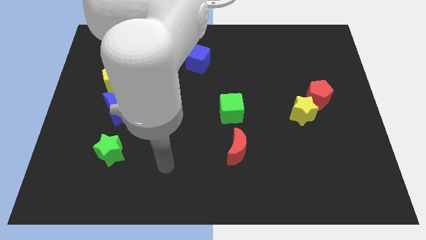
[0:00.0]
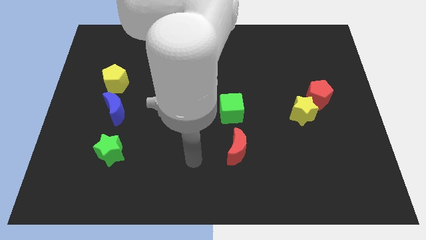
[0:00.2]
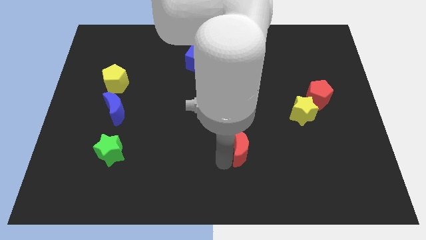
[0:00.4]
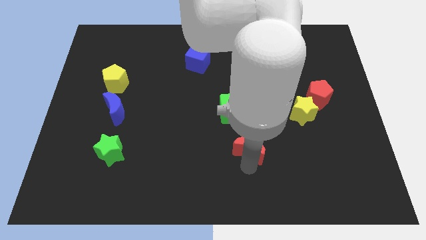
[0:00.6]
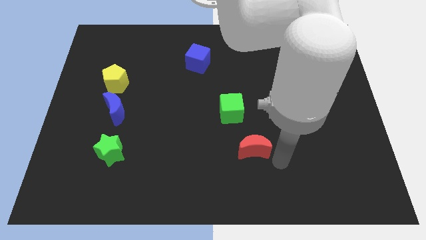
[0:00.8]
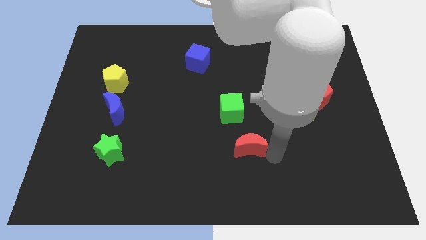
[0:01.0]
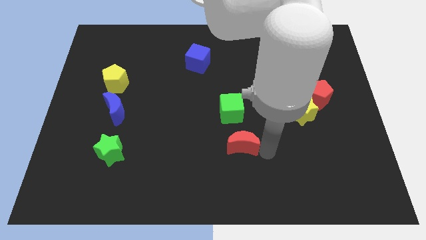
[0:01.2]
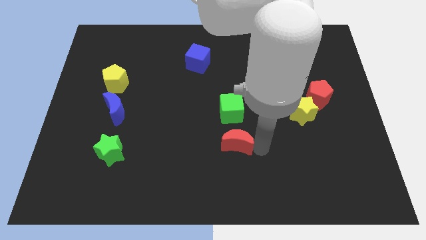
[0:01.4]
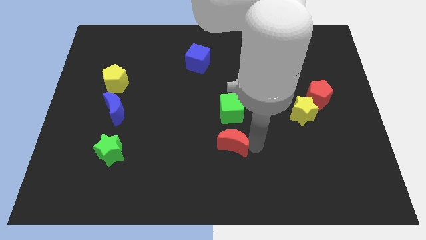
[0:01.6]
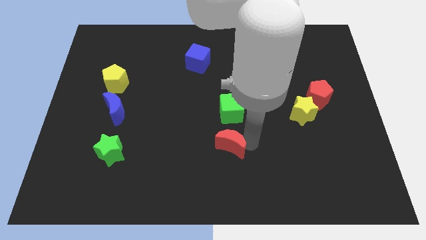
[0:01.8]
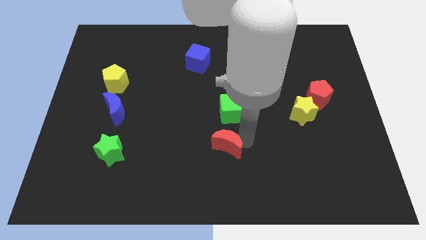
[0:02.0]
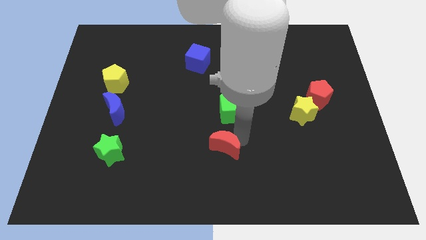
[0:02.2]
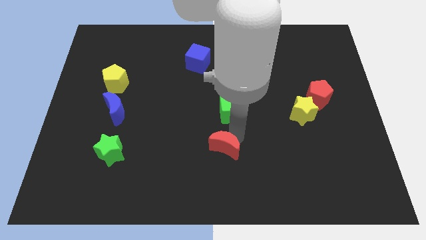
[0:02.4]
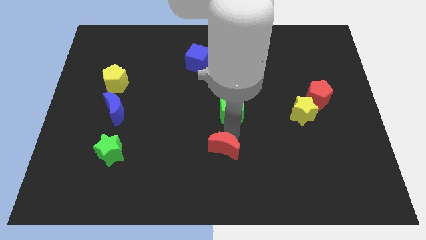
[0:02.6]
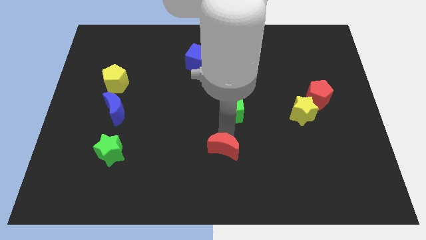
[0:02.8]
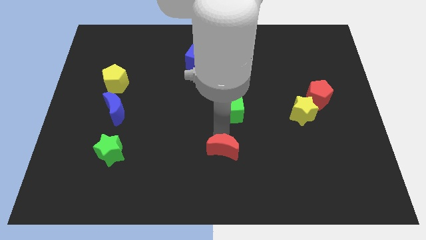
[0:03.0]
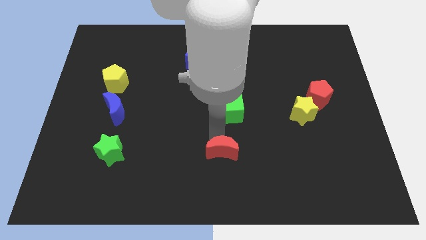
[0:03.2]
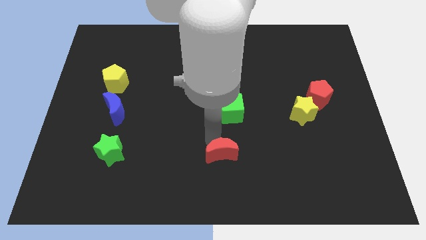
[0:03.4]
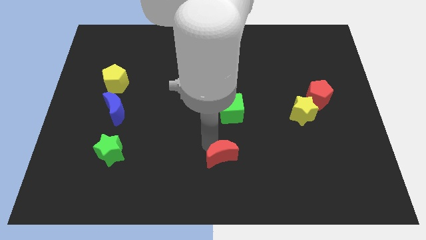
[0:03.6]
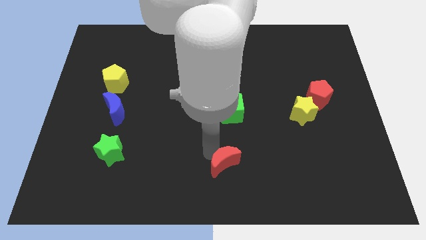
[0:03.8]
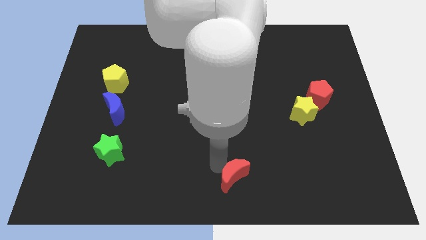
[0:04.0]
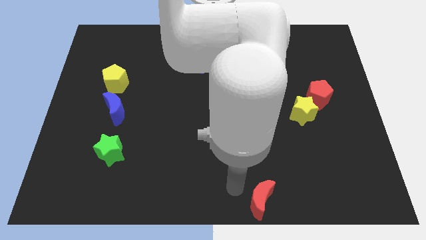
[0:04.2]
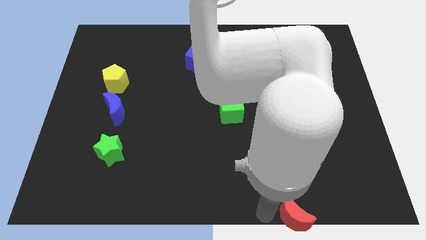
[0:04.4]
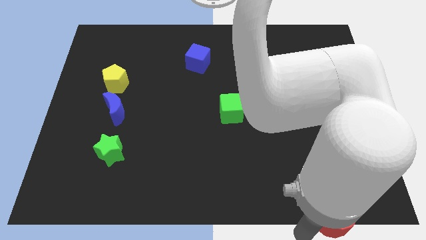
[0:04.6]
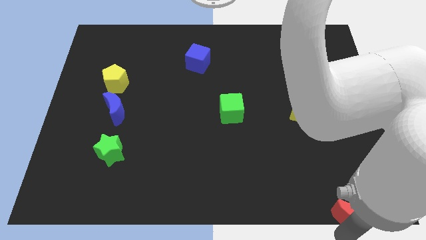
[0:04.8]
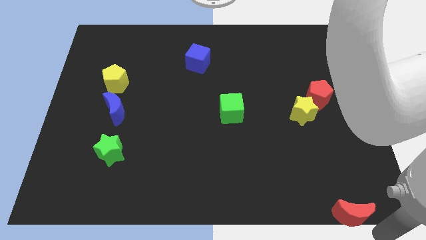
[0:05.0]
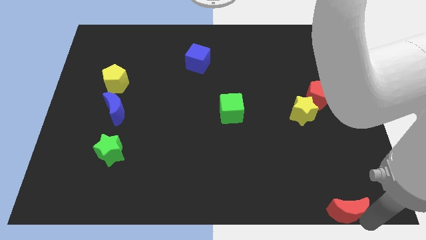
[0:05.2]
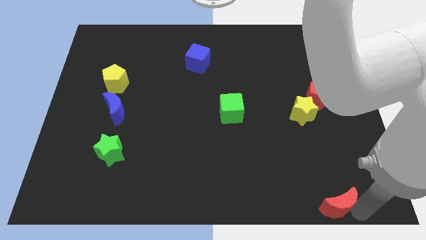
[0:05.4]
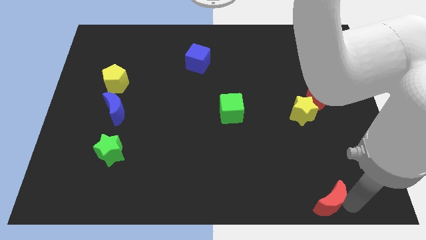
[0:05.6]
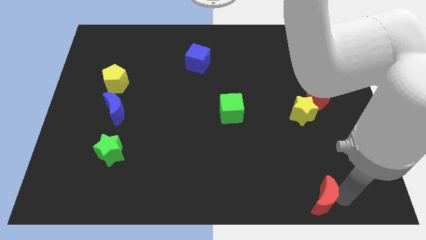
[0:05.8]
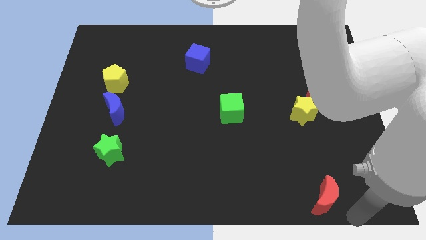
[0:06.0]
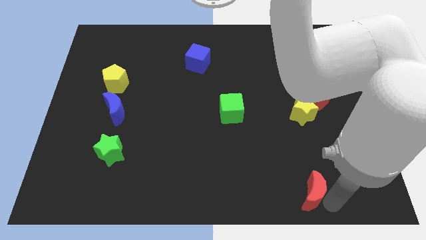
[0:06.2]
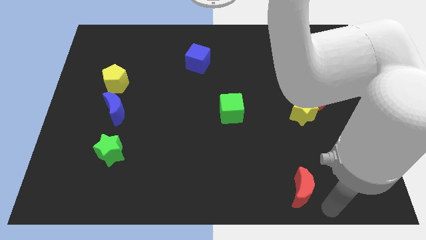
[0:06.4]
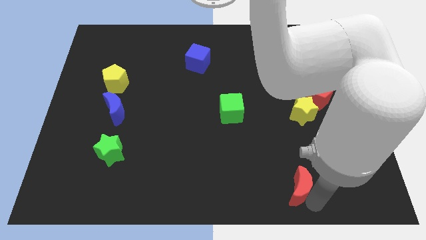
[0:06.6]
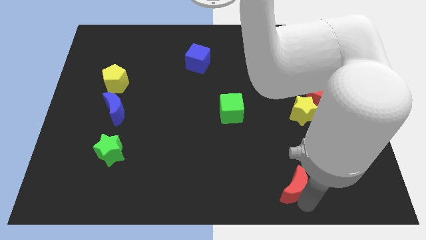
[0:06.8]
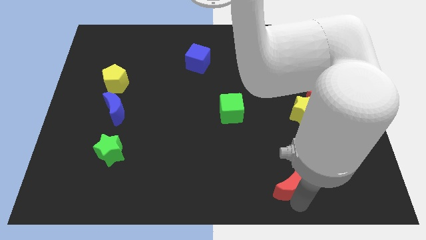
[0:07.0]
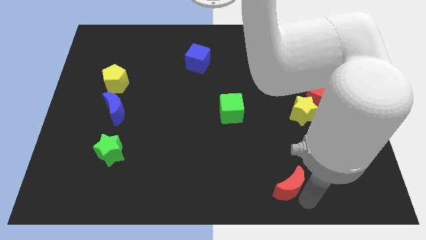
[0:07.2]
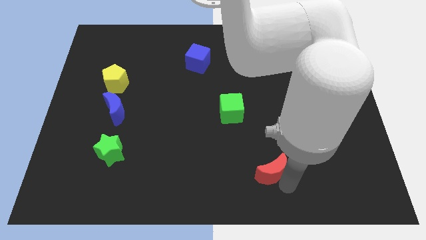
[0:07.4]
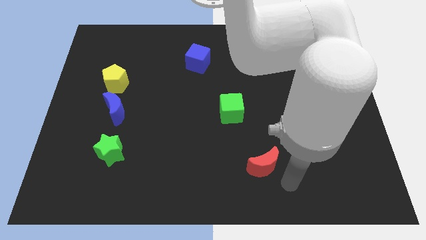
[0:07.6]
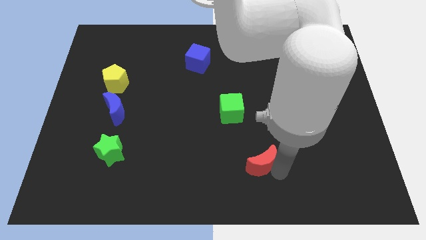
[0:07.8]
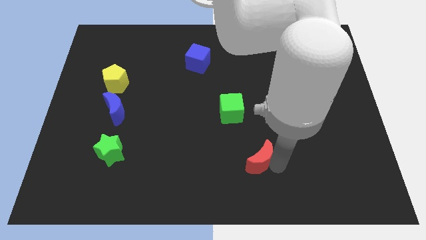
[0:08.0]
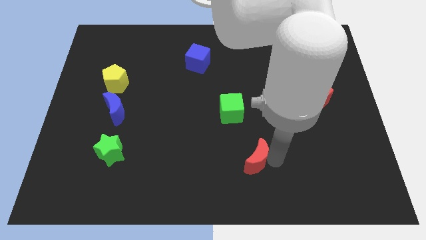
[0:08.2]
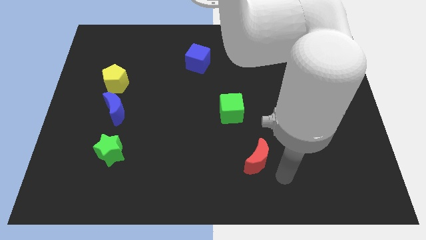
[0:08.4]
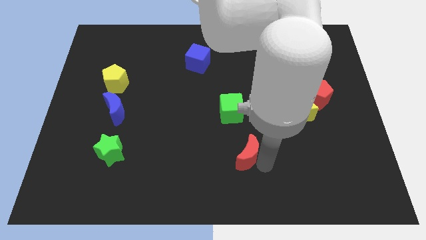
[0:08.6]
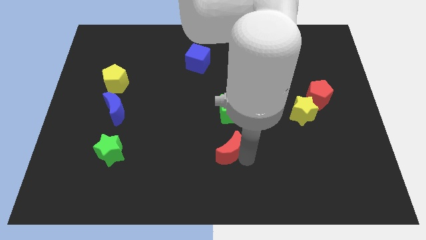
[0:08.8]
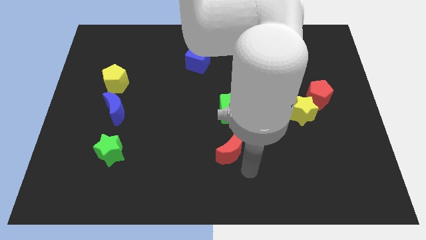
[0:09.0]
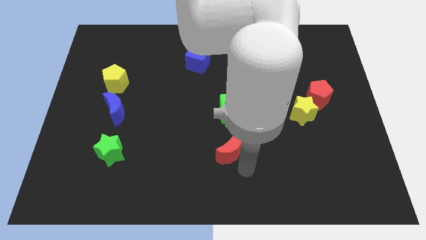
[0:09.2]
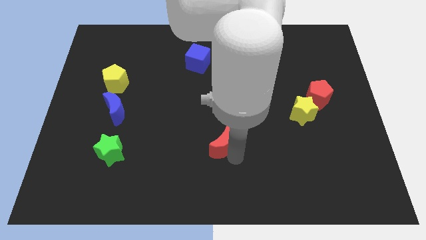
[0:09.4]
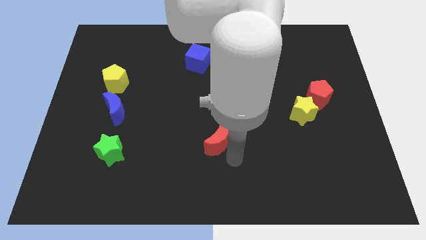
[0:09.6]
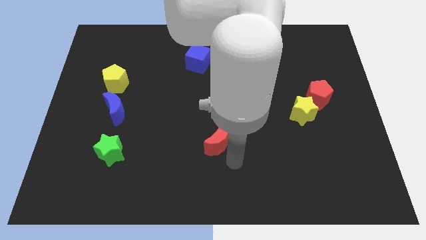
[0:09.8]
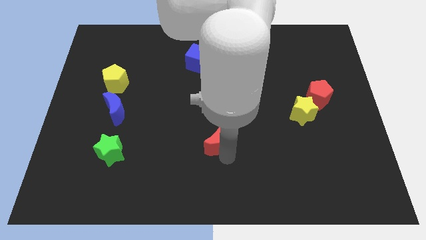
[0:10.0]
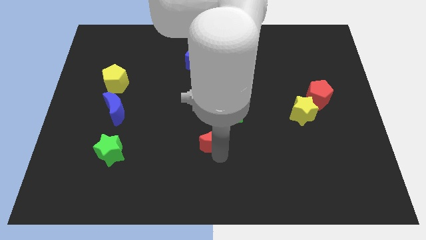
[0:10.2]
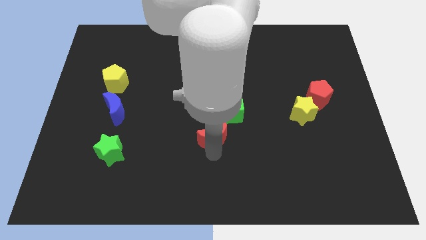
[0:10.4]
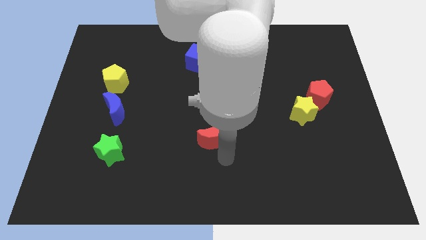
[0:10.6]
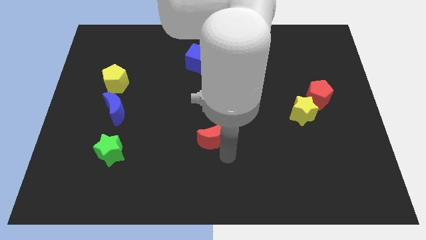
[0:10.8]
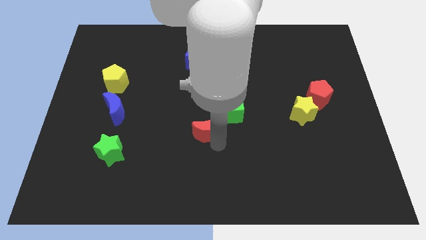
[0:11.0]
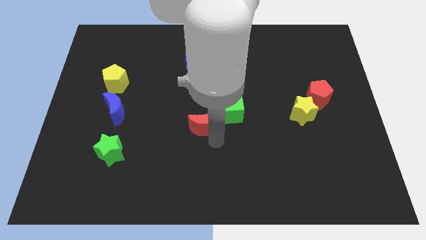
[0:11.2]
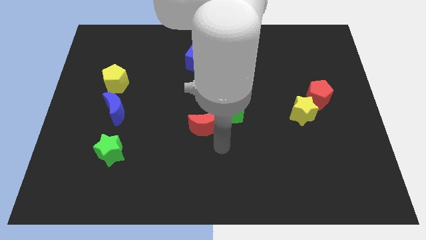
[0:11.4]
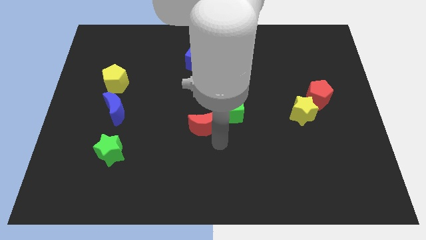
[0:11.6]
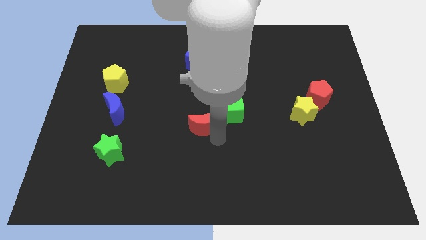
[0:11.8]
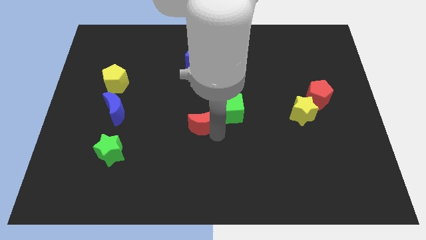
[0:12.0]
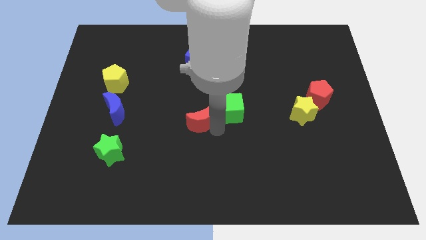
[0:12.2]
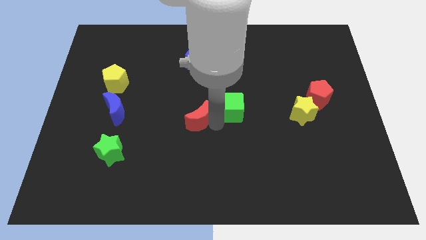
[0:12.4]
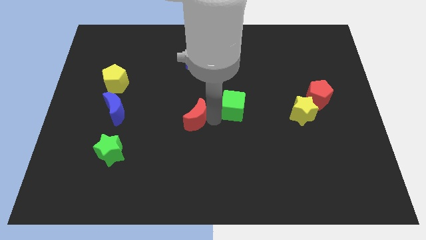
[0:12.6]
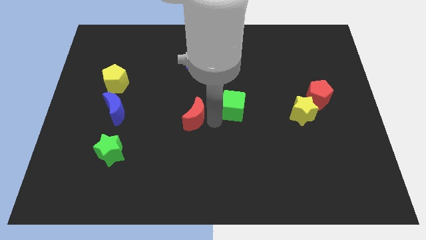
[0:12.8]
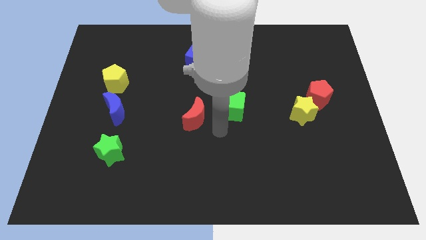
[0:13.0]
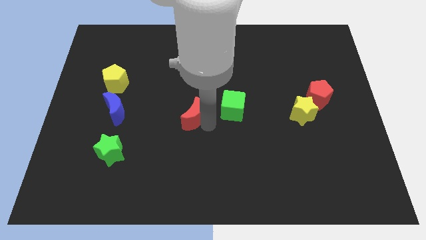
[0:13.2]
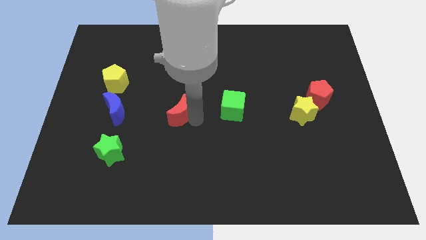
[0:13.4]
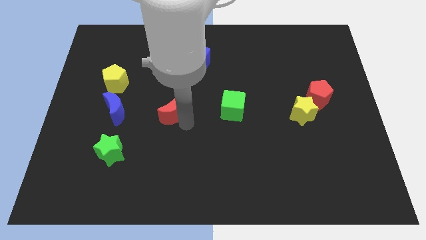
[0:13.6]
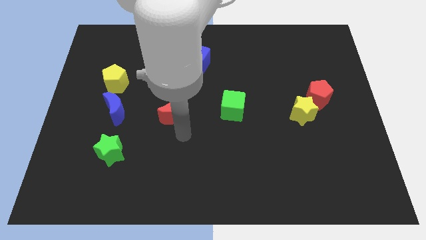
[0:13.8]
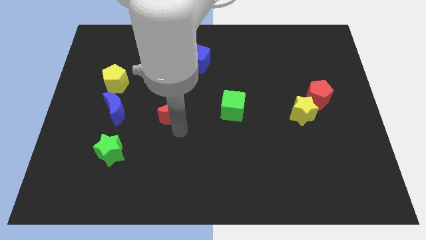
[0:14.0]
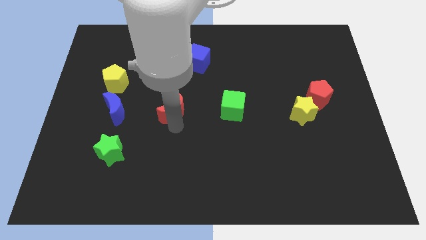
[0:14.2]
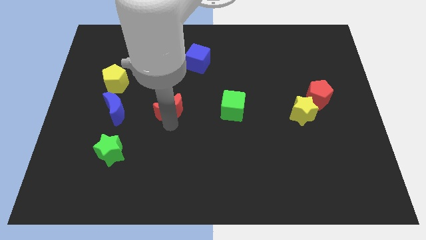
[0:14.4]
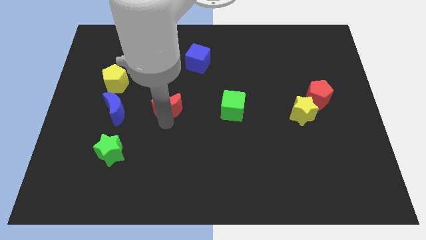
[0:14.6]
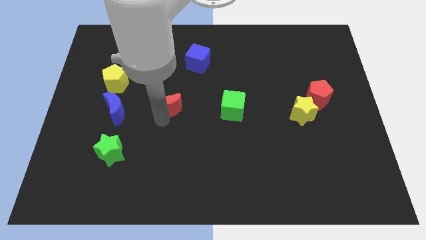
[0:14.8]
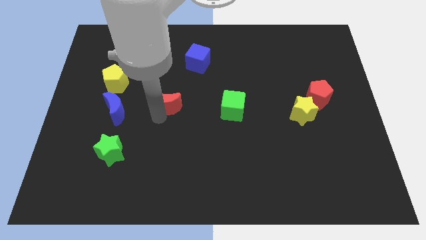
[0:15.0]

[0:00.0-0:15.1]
slide the red moon upwards and then left

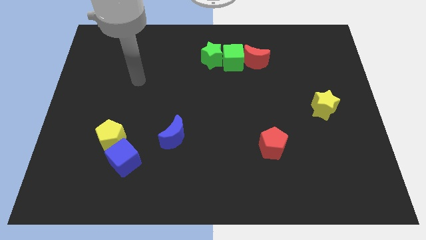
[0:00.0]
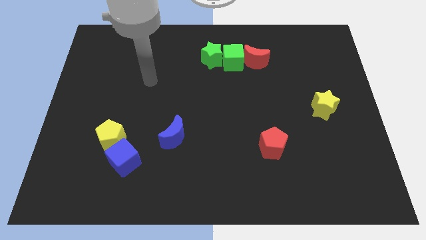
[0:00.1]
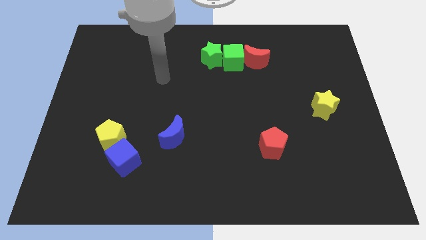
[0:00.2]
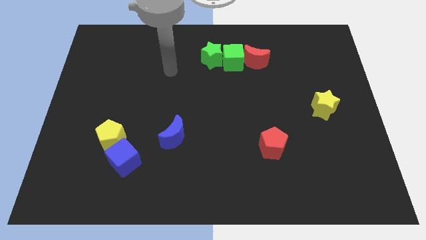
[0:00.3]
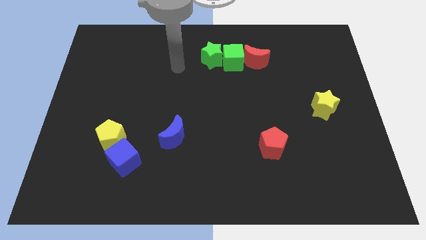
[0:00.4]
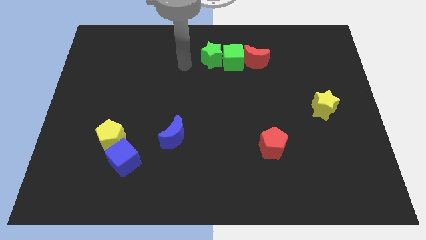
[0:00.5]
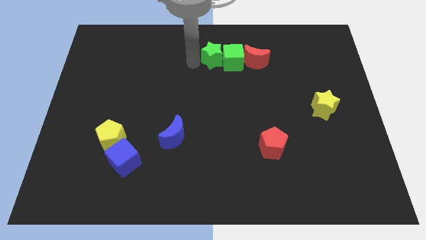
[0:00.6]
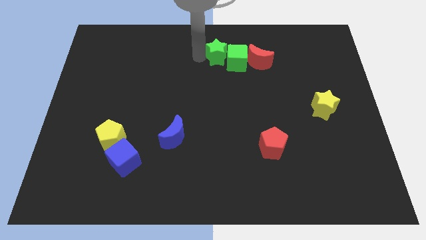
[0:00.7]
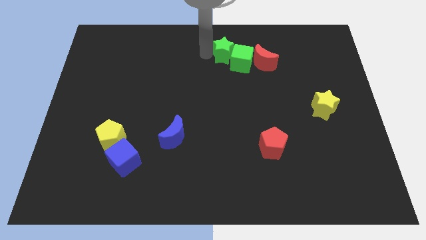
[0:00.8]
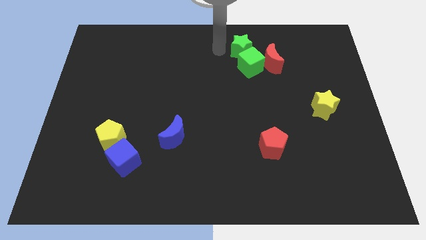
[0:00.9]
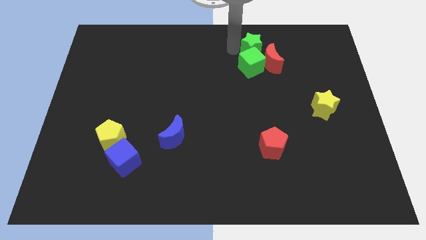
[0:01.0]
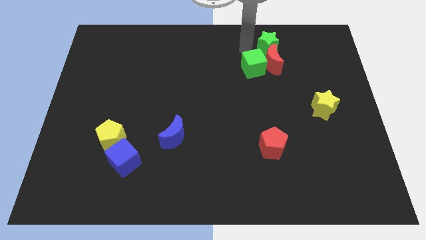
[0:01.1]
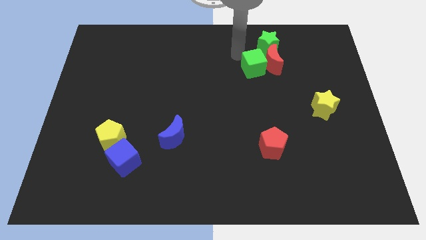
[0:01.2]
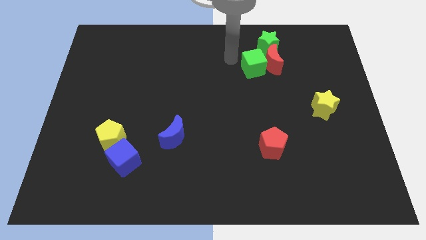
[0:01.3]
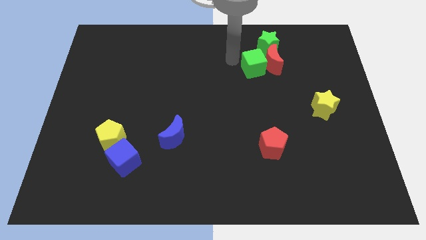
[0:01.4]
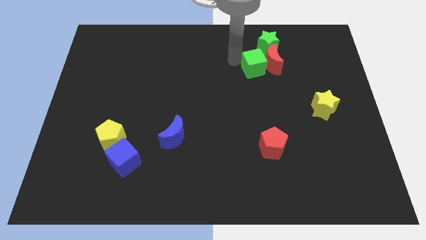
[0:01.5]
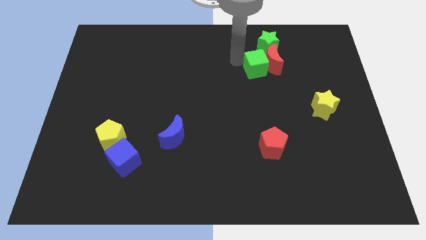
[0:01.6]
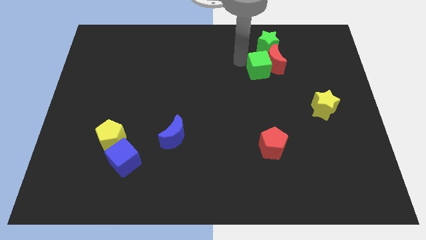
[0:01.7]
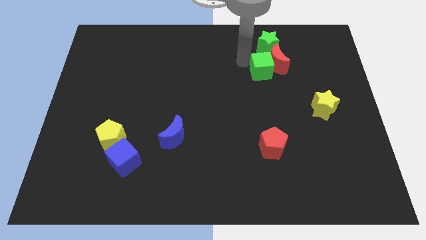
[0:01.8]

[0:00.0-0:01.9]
slightly push the green cube right
